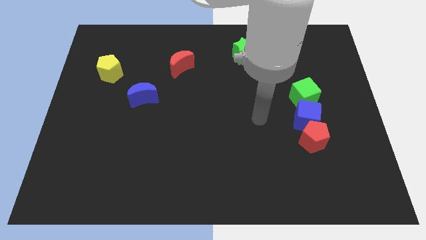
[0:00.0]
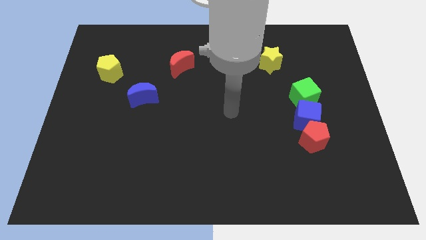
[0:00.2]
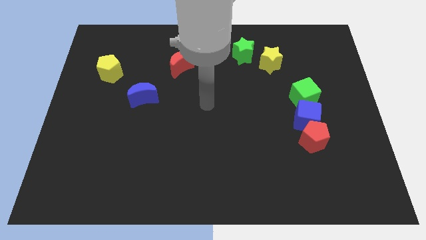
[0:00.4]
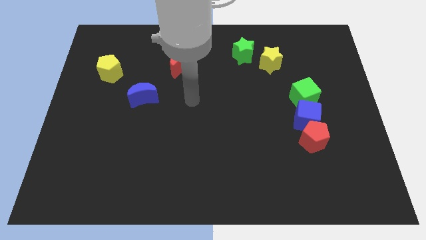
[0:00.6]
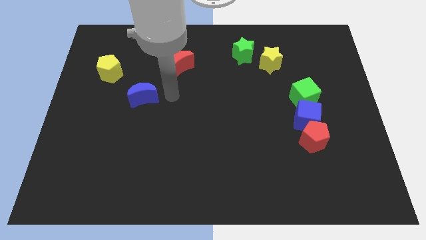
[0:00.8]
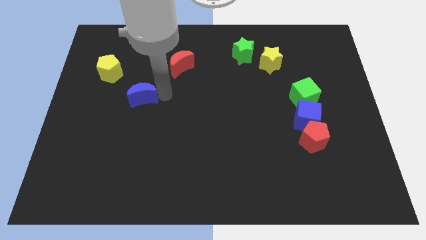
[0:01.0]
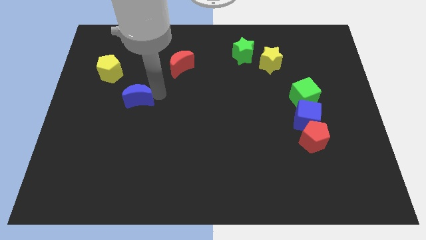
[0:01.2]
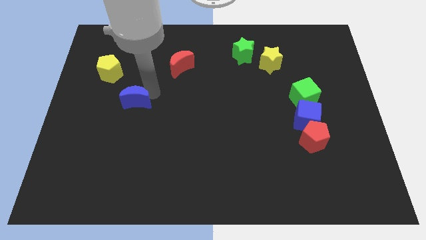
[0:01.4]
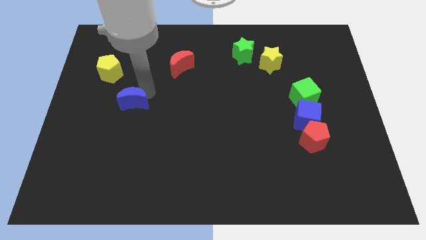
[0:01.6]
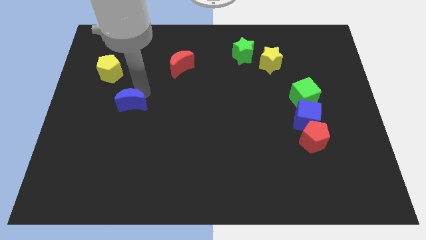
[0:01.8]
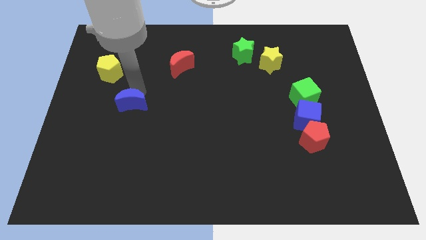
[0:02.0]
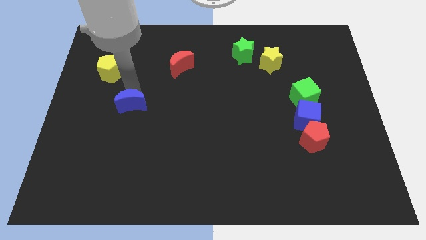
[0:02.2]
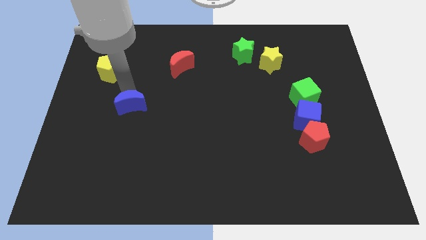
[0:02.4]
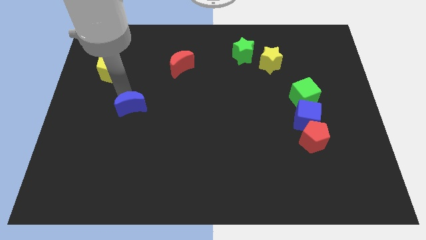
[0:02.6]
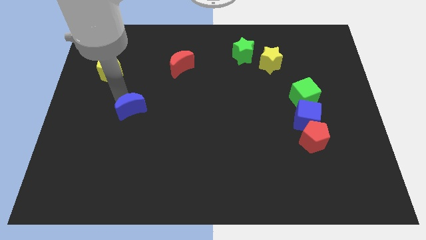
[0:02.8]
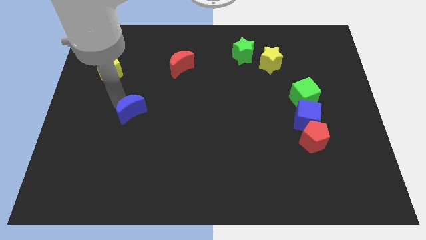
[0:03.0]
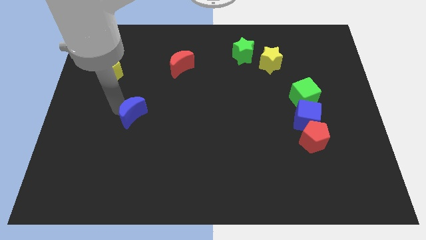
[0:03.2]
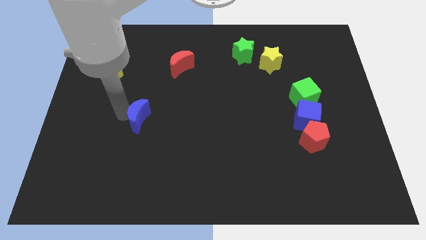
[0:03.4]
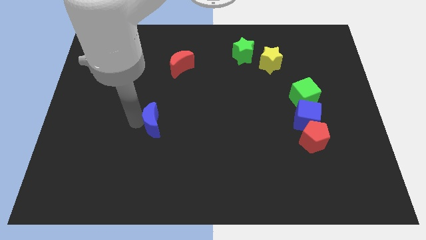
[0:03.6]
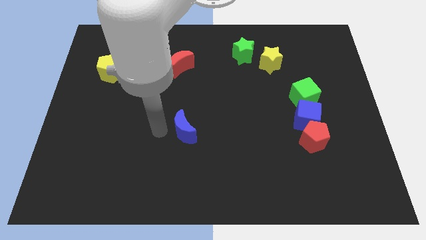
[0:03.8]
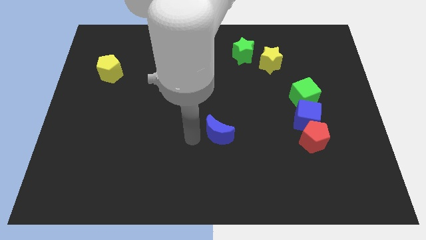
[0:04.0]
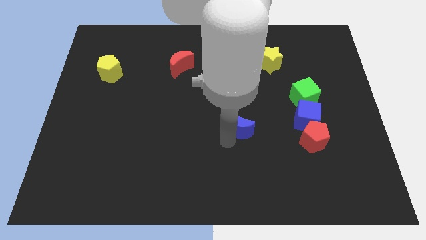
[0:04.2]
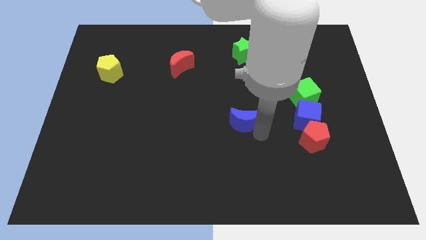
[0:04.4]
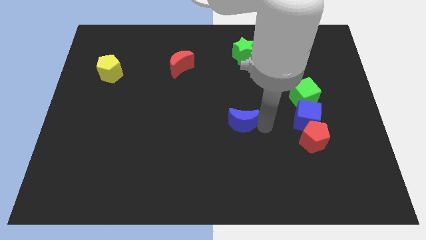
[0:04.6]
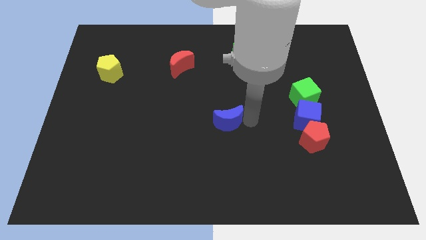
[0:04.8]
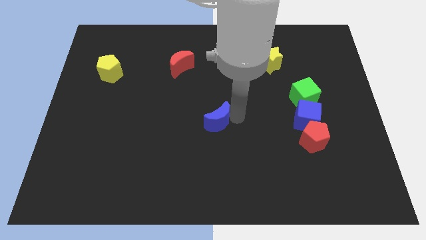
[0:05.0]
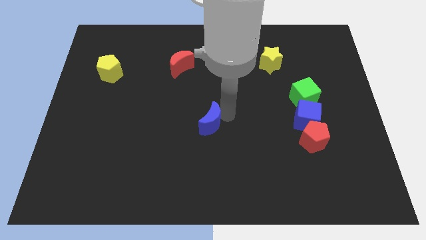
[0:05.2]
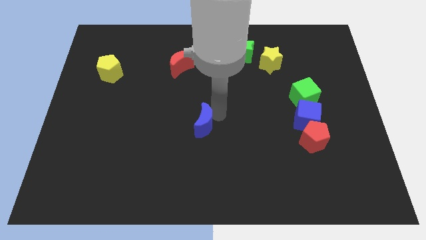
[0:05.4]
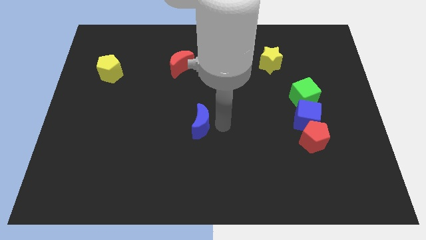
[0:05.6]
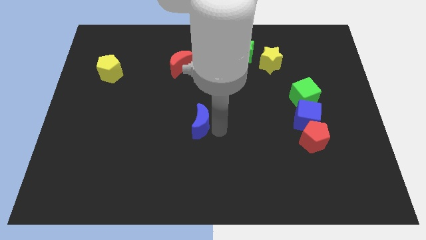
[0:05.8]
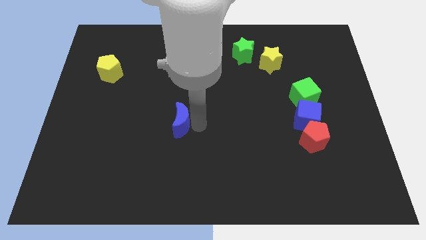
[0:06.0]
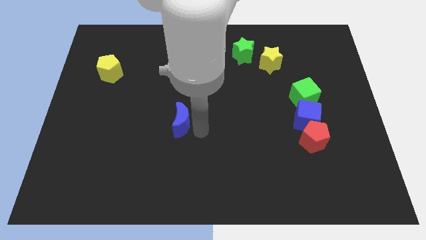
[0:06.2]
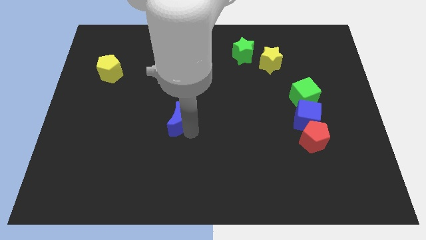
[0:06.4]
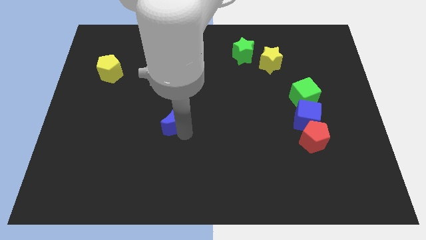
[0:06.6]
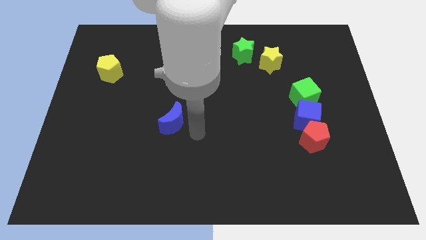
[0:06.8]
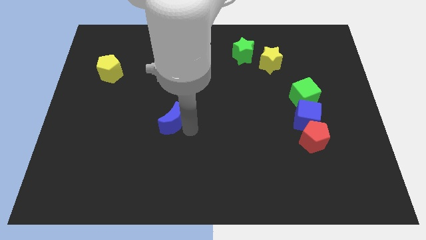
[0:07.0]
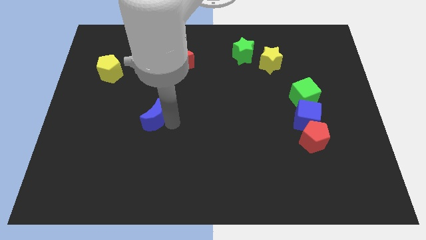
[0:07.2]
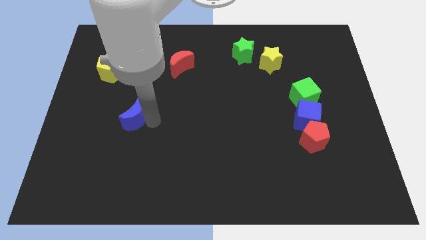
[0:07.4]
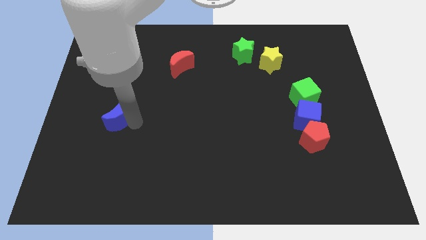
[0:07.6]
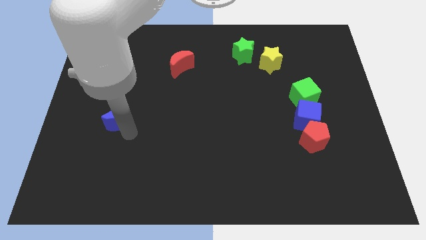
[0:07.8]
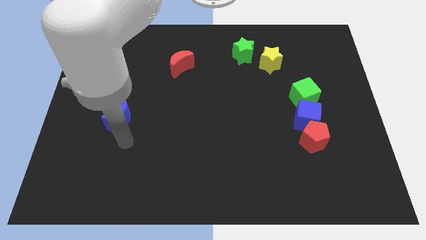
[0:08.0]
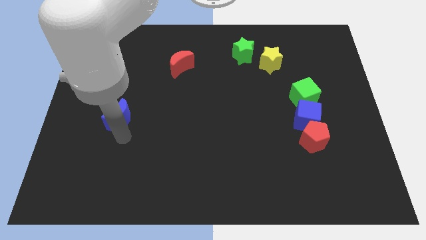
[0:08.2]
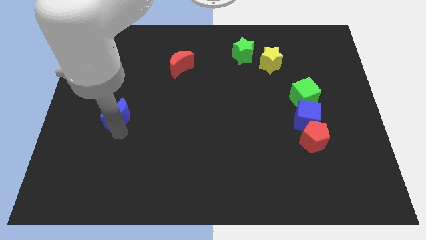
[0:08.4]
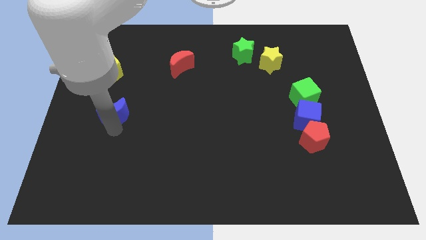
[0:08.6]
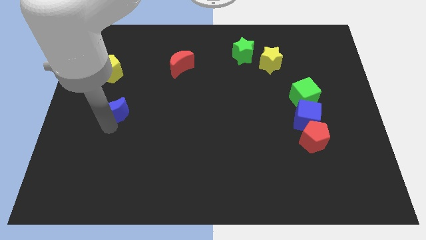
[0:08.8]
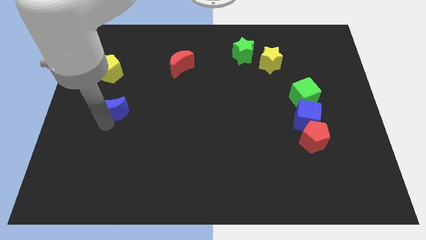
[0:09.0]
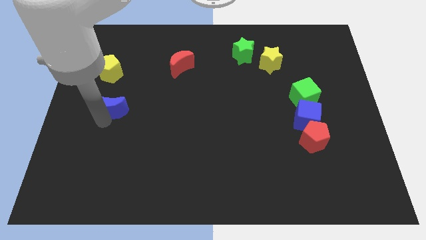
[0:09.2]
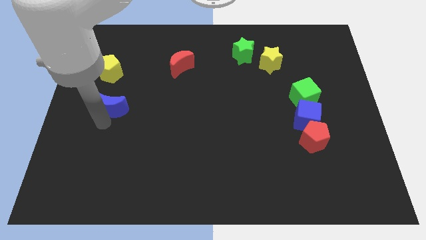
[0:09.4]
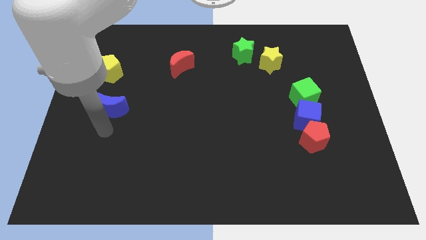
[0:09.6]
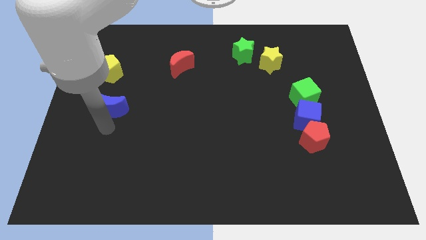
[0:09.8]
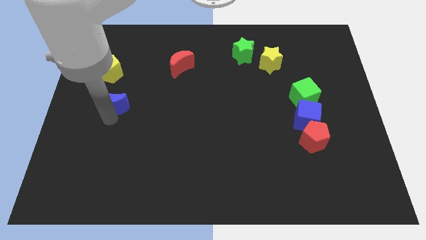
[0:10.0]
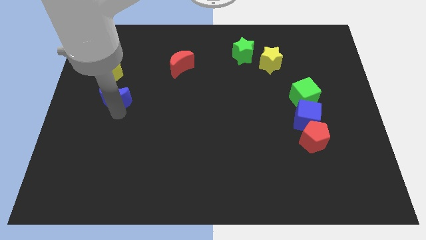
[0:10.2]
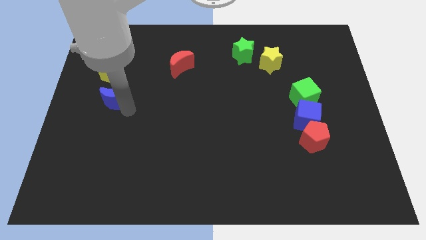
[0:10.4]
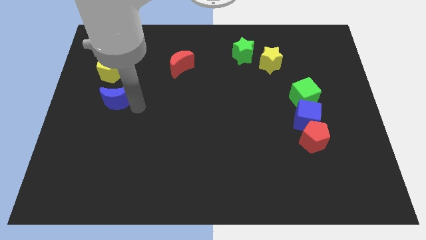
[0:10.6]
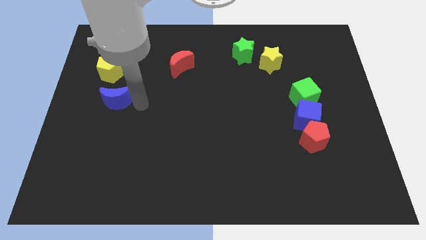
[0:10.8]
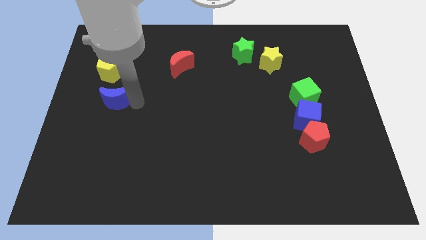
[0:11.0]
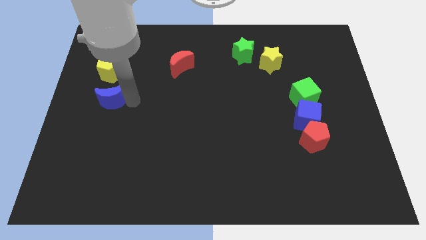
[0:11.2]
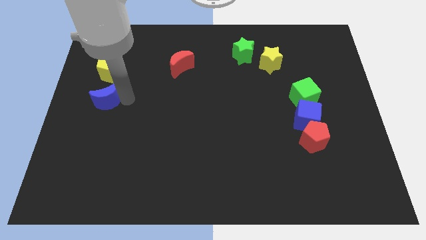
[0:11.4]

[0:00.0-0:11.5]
put the blue moon to the center left
